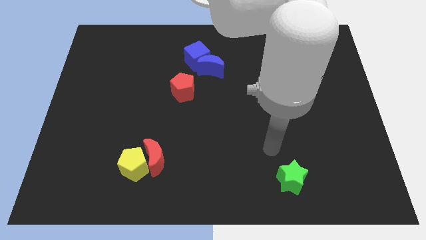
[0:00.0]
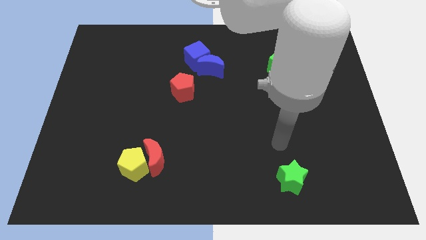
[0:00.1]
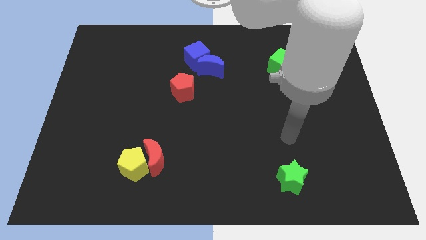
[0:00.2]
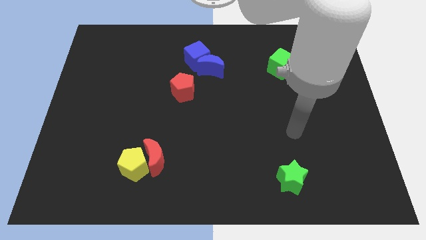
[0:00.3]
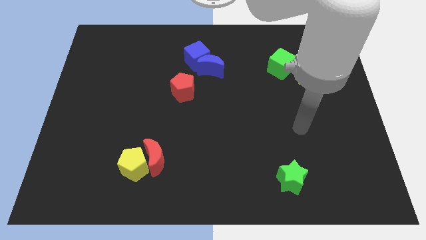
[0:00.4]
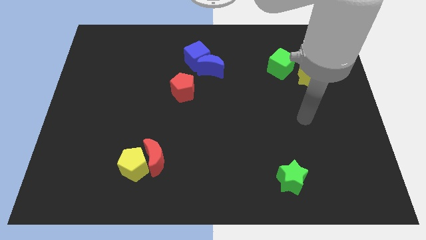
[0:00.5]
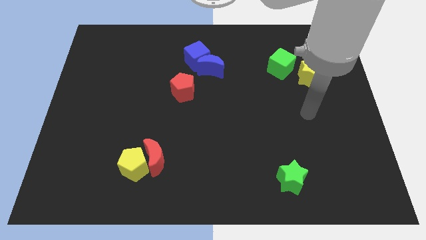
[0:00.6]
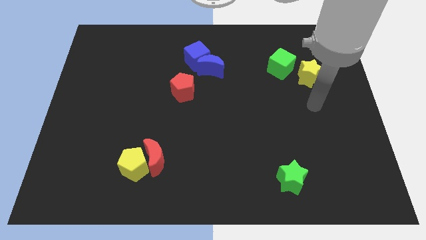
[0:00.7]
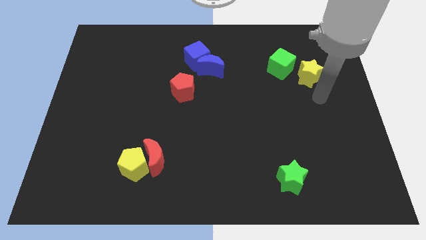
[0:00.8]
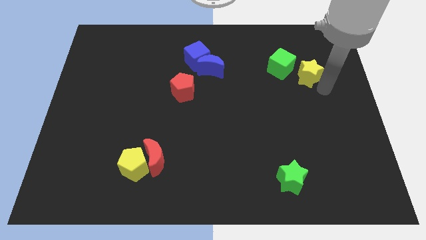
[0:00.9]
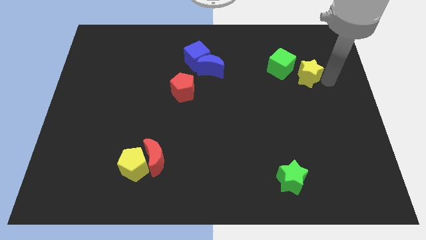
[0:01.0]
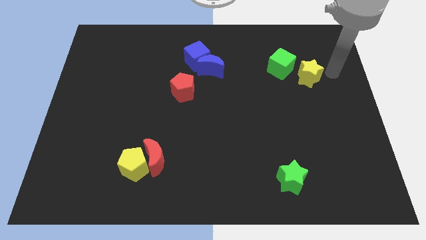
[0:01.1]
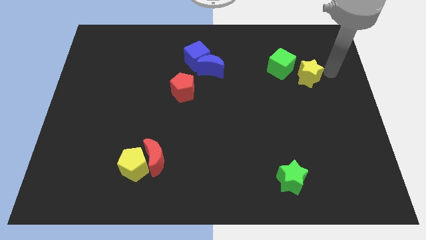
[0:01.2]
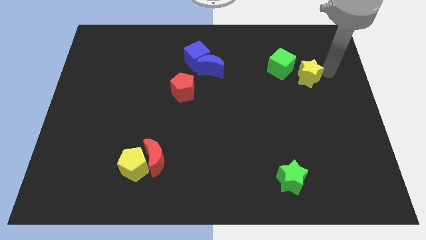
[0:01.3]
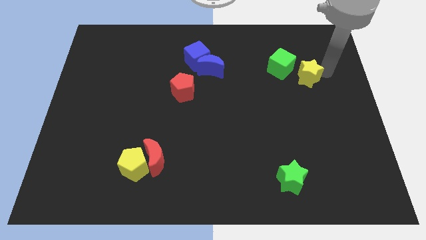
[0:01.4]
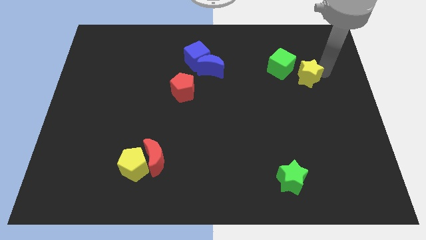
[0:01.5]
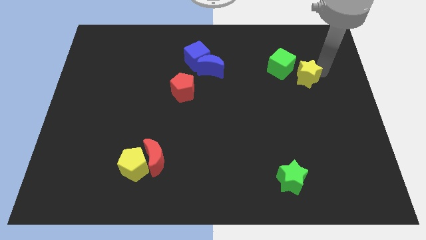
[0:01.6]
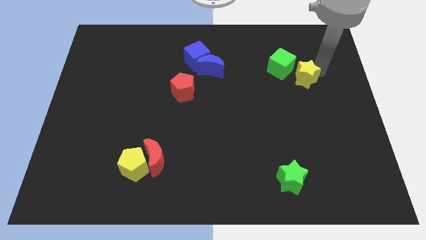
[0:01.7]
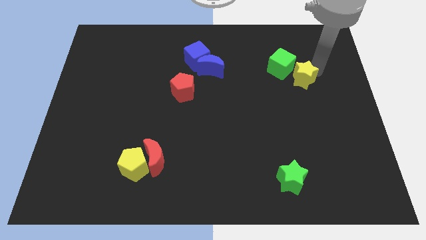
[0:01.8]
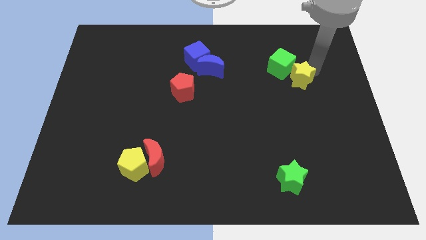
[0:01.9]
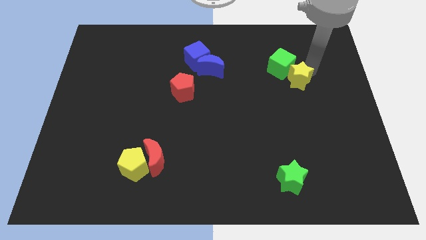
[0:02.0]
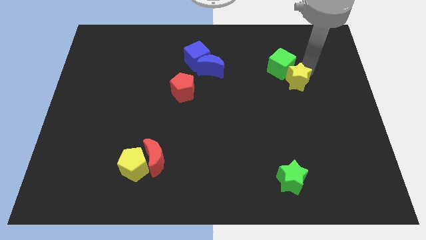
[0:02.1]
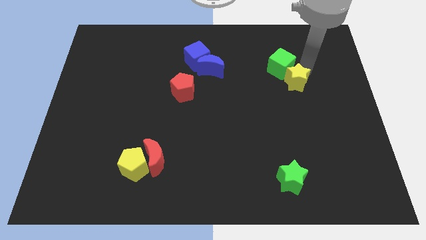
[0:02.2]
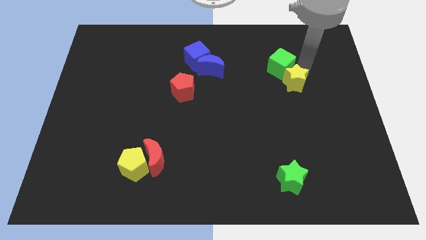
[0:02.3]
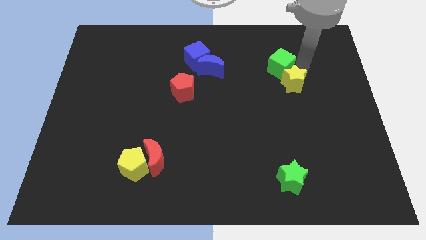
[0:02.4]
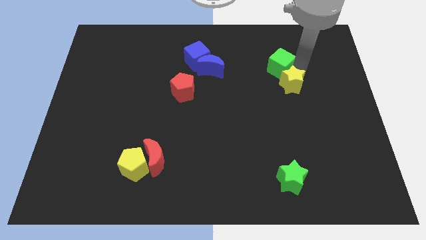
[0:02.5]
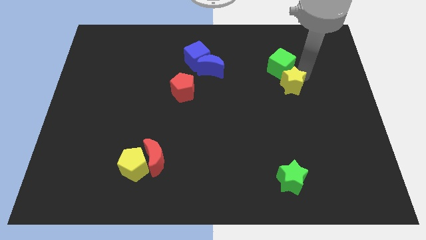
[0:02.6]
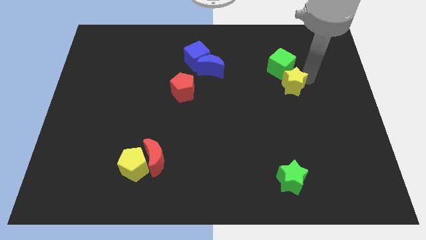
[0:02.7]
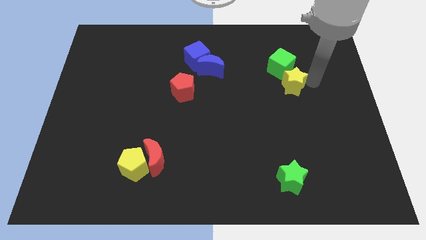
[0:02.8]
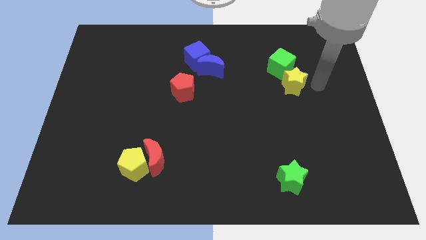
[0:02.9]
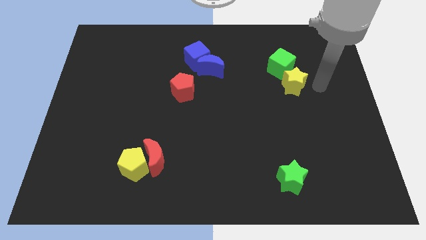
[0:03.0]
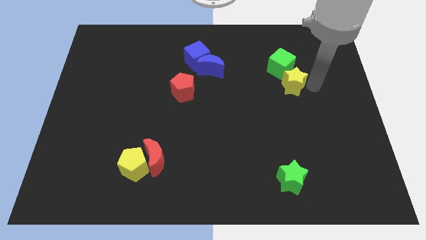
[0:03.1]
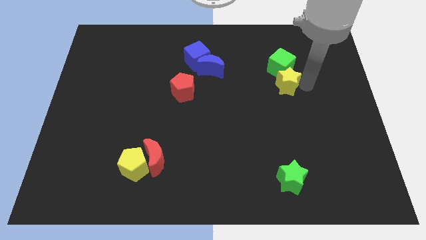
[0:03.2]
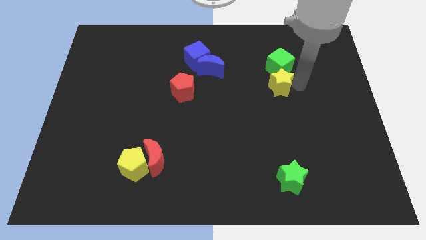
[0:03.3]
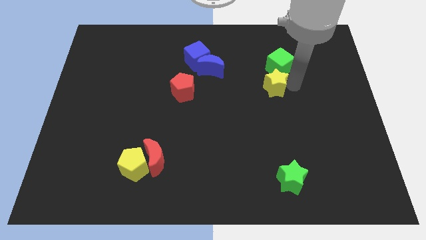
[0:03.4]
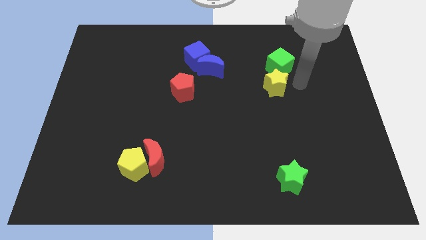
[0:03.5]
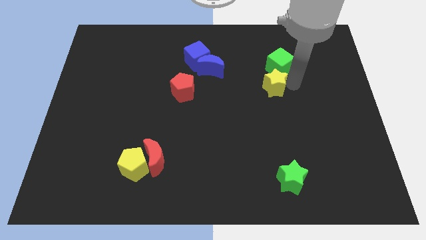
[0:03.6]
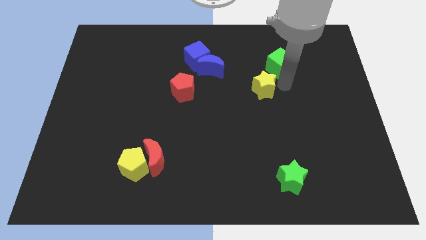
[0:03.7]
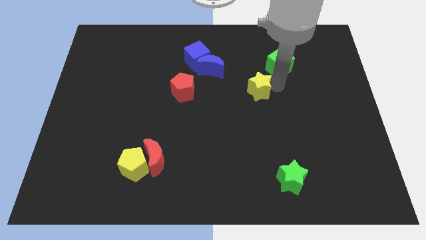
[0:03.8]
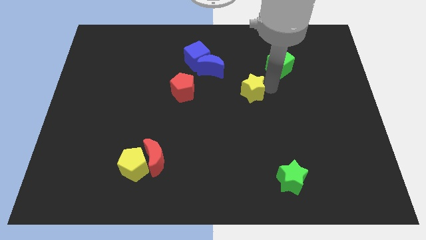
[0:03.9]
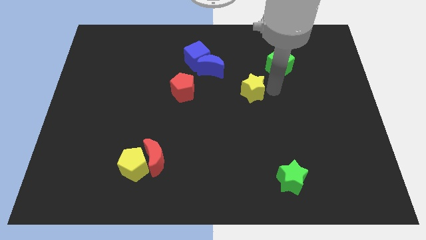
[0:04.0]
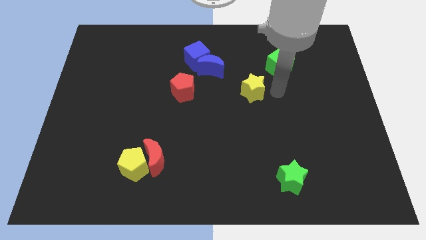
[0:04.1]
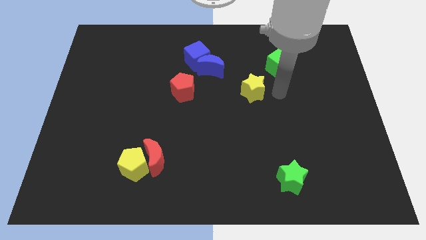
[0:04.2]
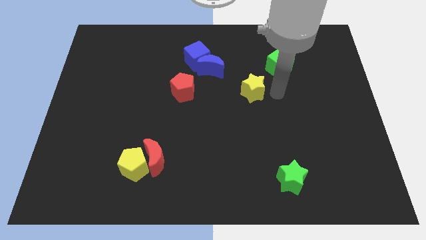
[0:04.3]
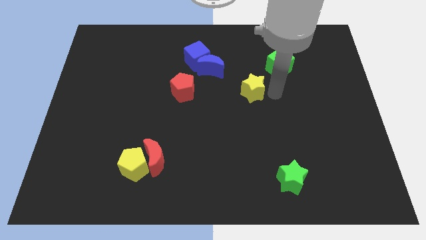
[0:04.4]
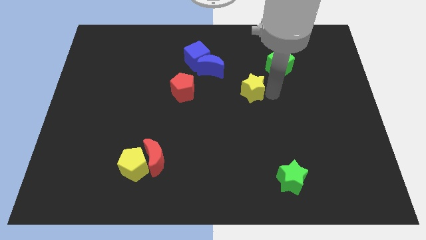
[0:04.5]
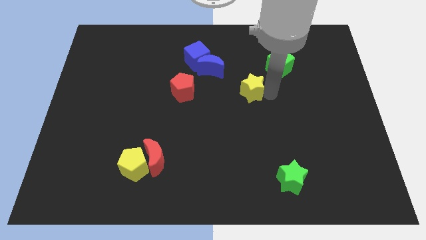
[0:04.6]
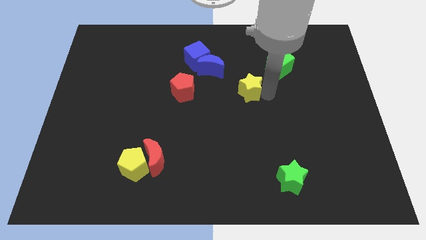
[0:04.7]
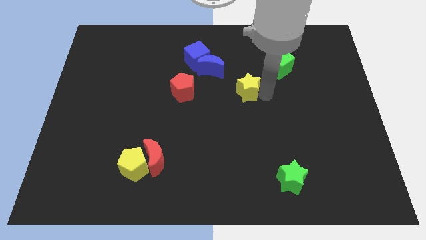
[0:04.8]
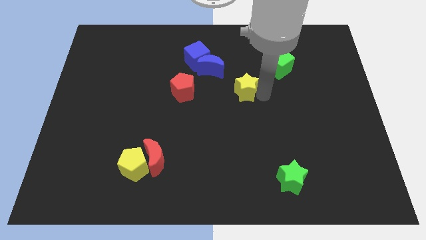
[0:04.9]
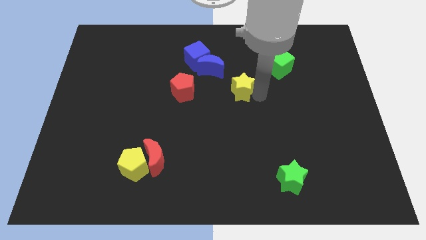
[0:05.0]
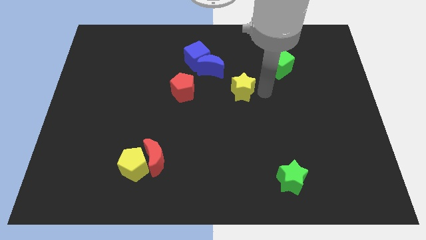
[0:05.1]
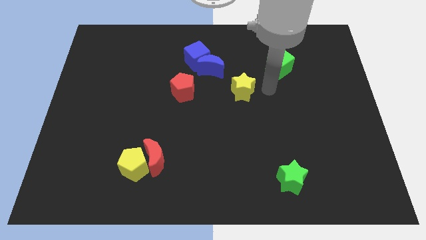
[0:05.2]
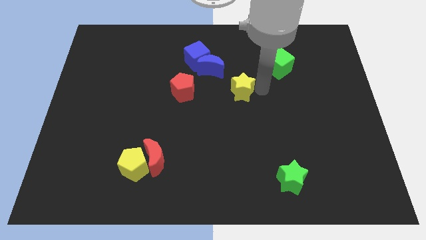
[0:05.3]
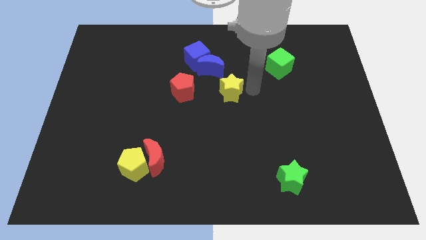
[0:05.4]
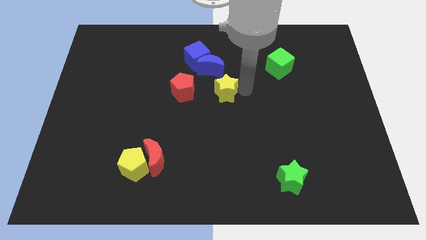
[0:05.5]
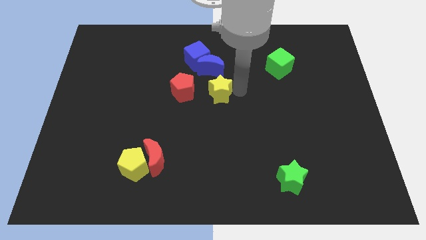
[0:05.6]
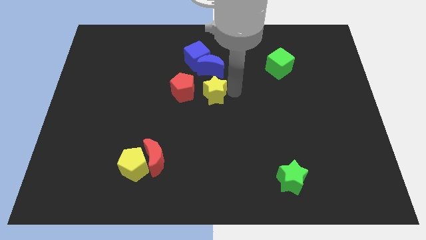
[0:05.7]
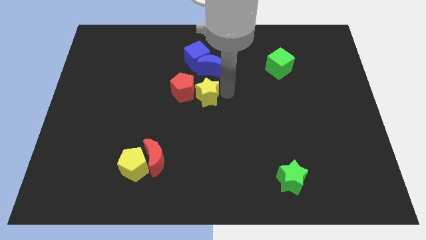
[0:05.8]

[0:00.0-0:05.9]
push the yellow star next to the red pentagon

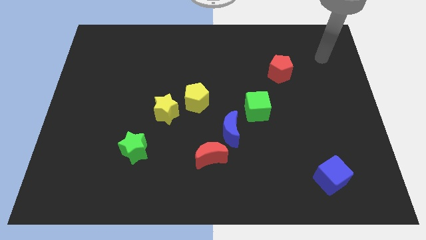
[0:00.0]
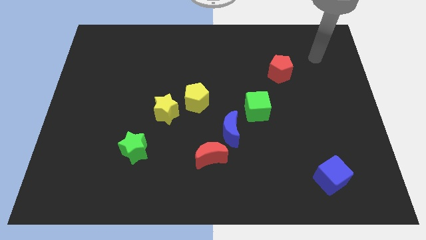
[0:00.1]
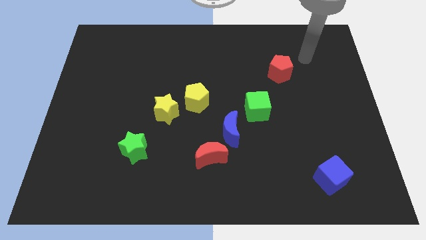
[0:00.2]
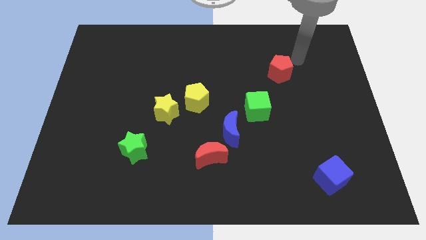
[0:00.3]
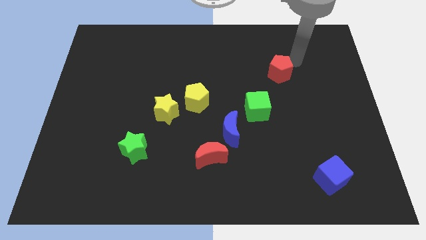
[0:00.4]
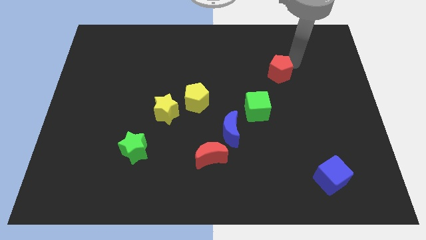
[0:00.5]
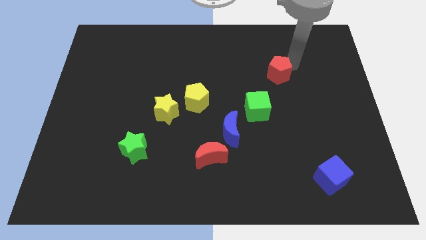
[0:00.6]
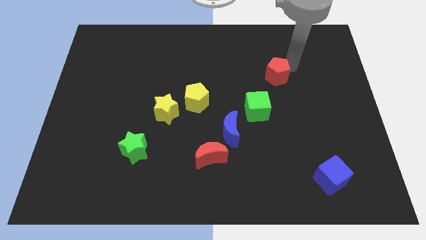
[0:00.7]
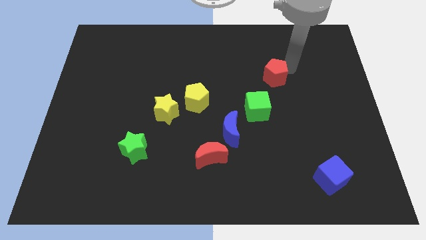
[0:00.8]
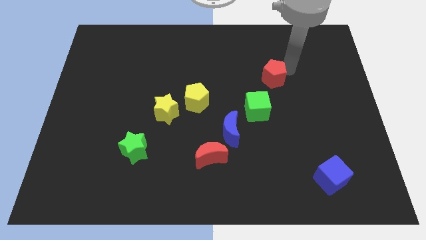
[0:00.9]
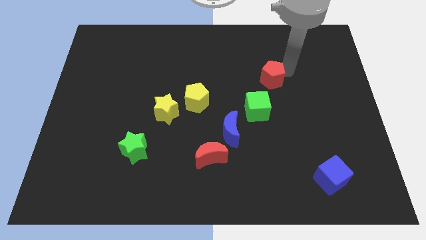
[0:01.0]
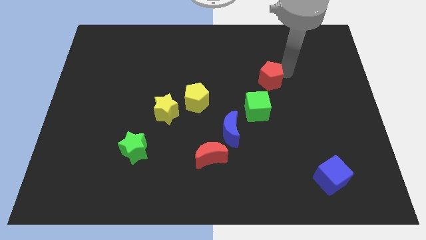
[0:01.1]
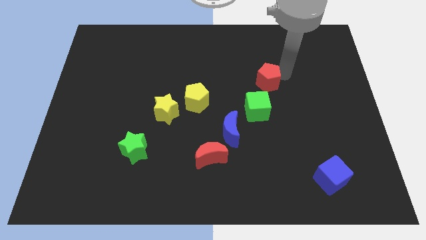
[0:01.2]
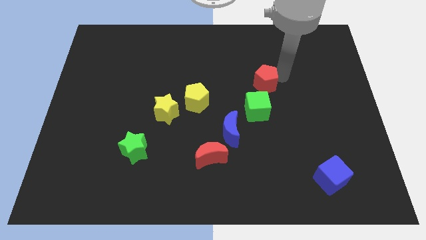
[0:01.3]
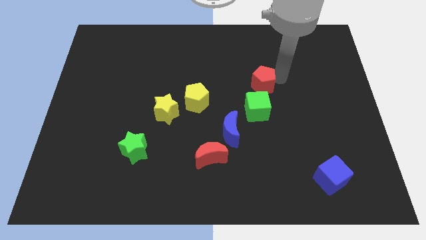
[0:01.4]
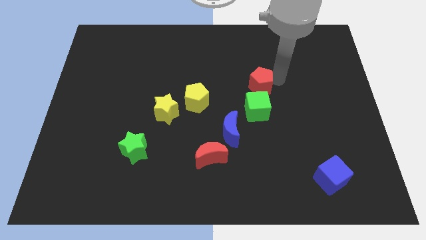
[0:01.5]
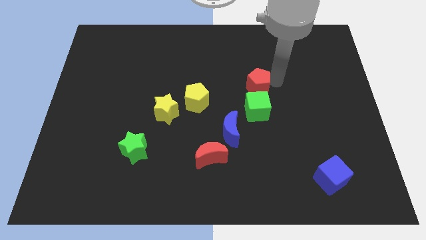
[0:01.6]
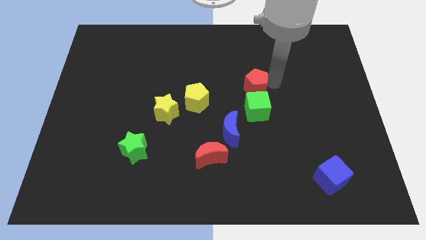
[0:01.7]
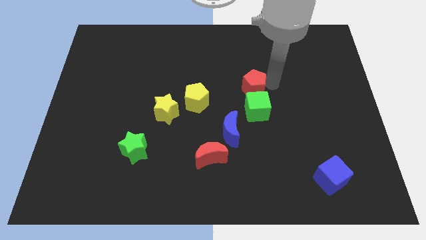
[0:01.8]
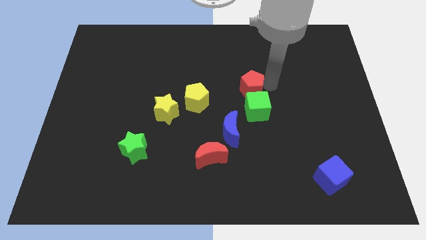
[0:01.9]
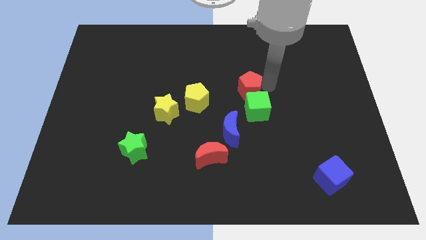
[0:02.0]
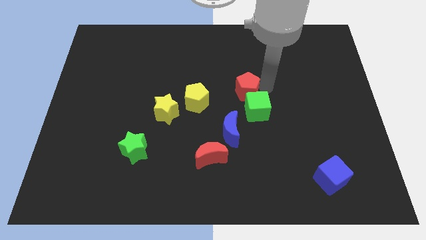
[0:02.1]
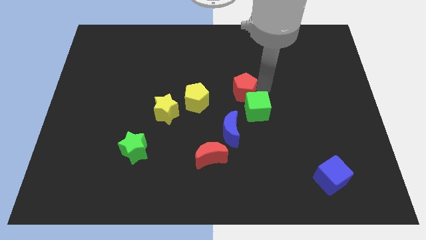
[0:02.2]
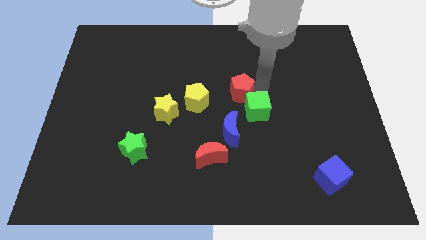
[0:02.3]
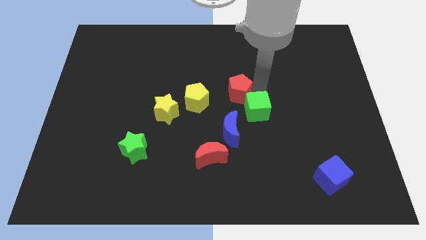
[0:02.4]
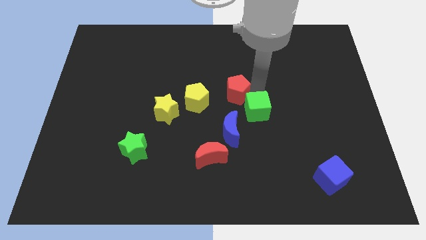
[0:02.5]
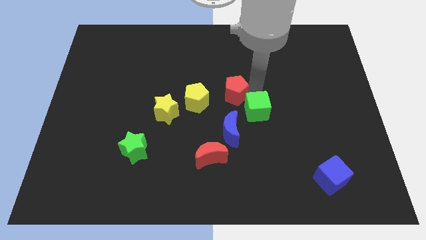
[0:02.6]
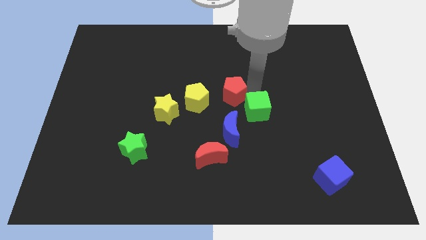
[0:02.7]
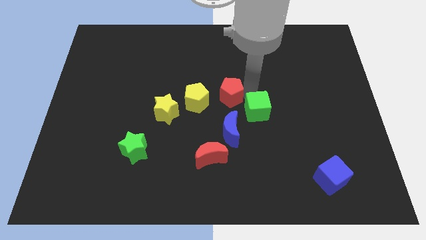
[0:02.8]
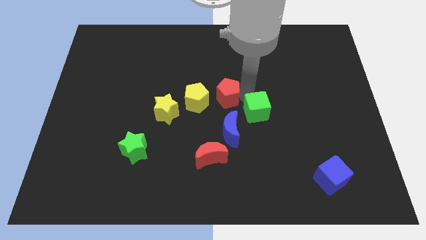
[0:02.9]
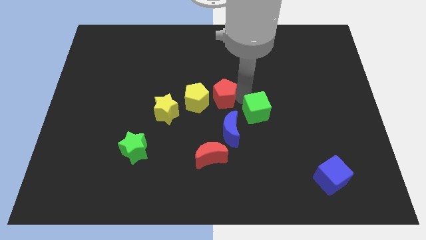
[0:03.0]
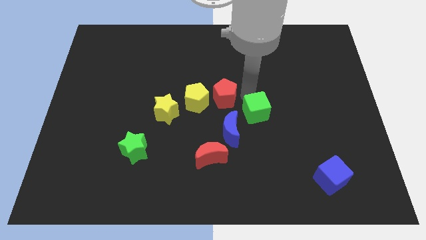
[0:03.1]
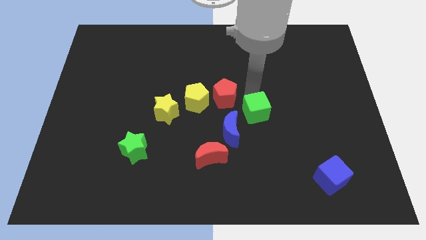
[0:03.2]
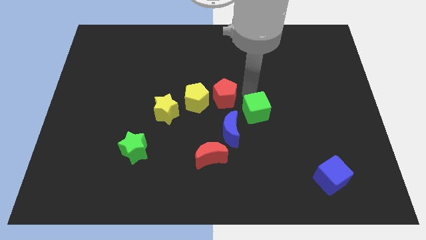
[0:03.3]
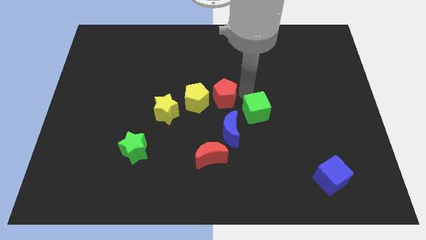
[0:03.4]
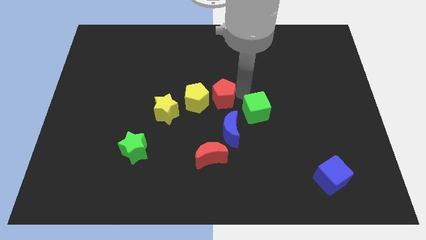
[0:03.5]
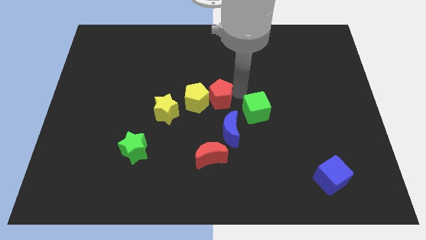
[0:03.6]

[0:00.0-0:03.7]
push the red pentagon next to the yellow pentagon
